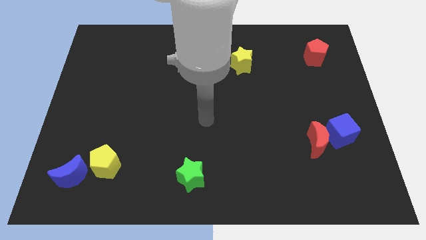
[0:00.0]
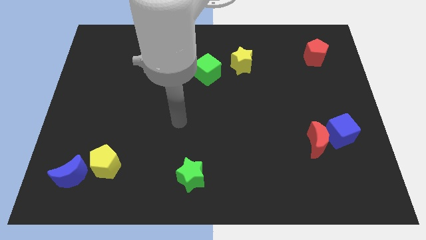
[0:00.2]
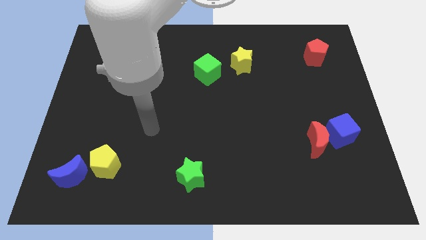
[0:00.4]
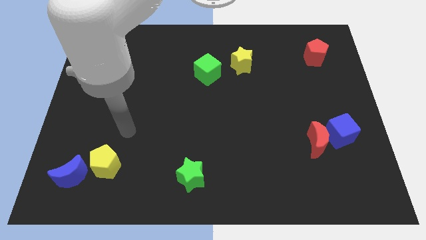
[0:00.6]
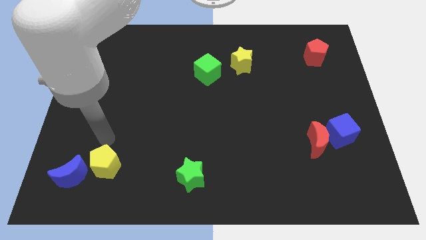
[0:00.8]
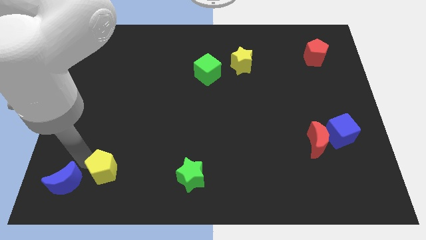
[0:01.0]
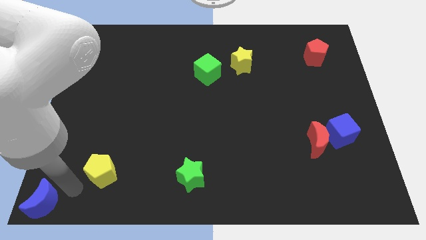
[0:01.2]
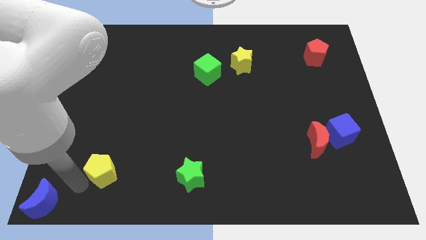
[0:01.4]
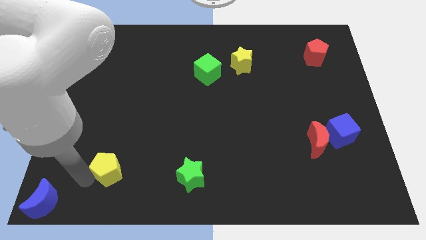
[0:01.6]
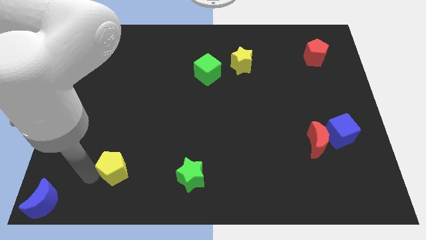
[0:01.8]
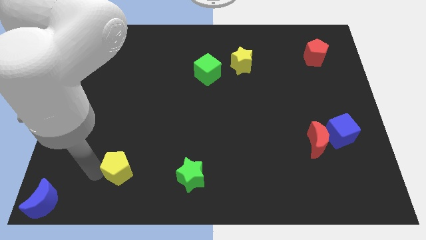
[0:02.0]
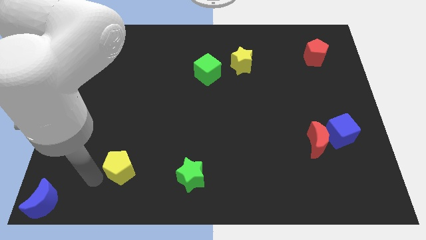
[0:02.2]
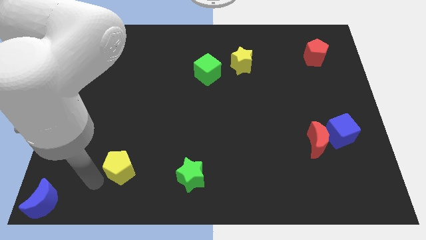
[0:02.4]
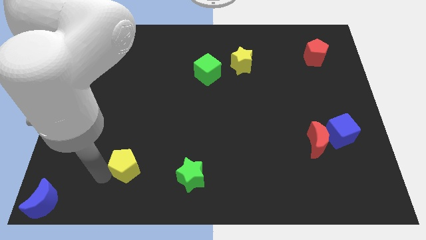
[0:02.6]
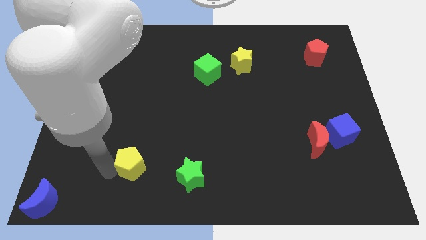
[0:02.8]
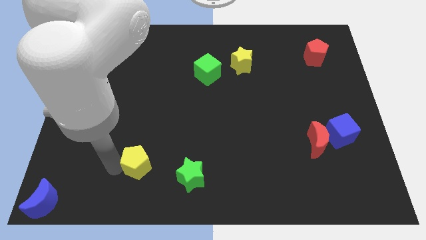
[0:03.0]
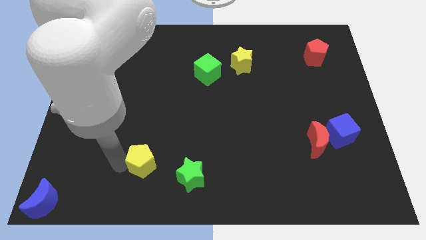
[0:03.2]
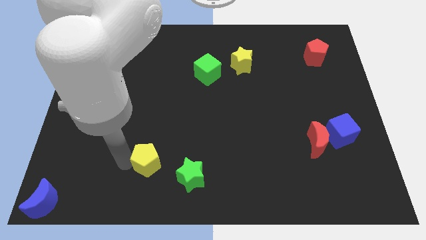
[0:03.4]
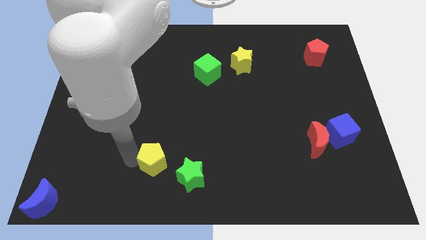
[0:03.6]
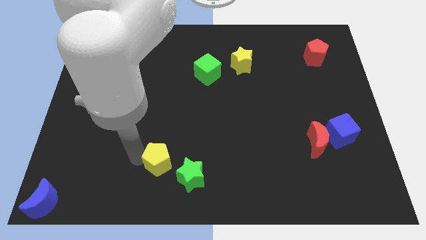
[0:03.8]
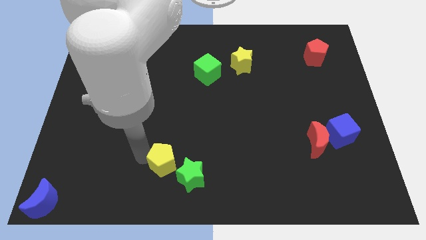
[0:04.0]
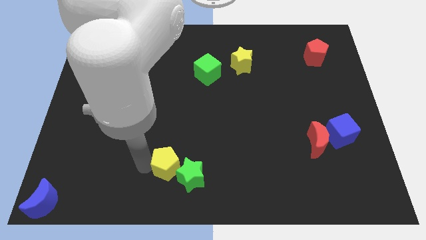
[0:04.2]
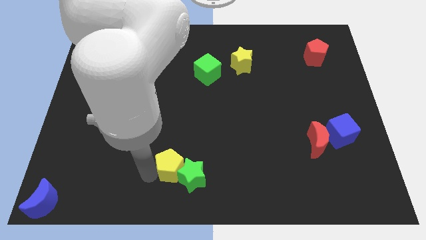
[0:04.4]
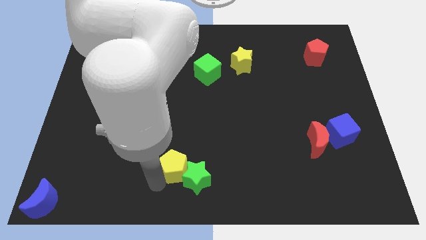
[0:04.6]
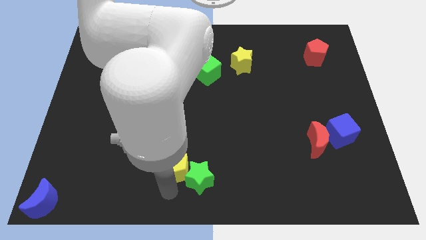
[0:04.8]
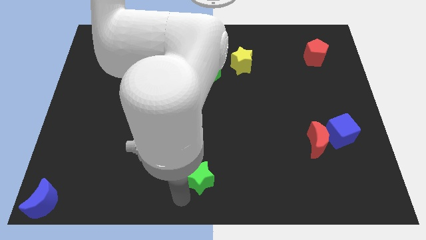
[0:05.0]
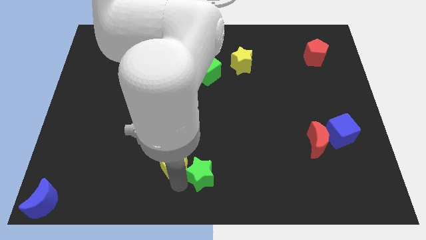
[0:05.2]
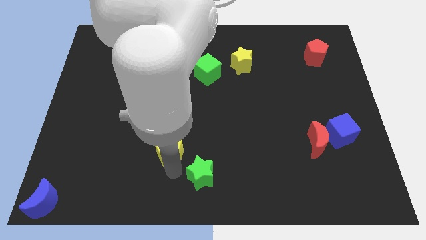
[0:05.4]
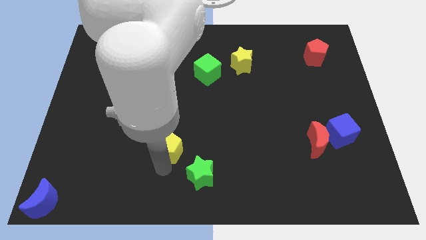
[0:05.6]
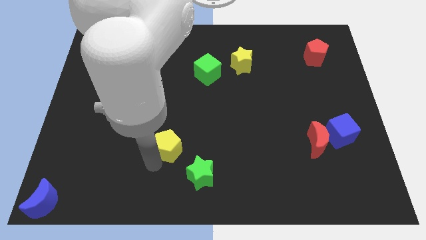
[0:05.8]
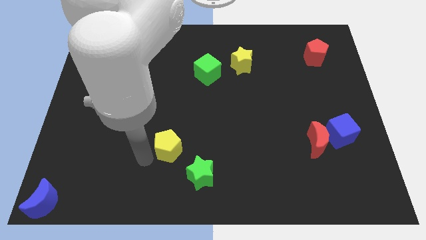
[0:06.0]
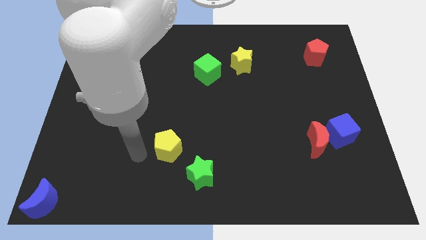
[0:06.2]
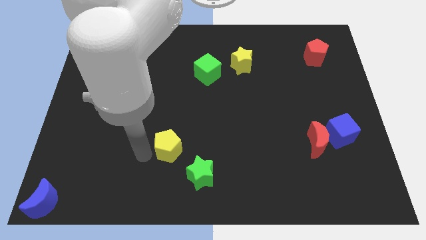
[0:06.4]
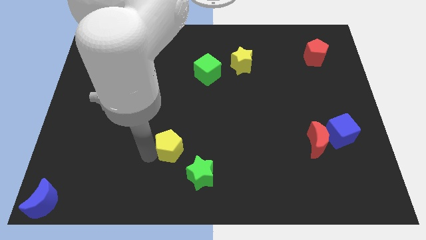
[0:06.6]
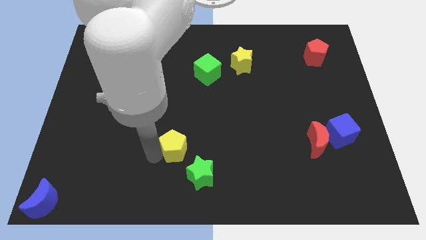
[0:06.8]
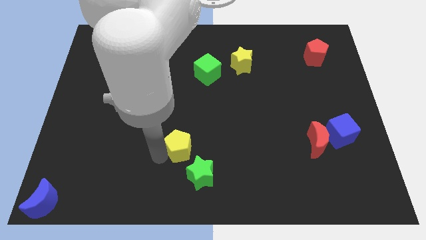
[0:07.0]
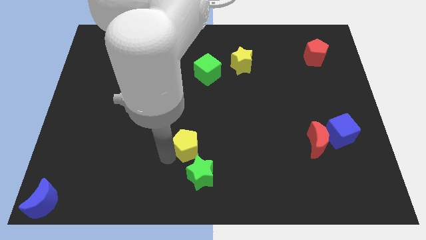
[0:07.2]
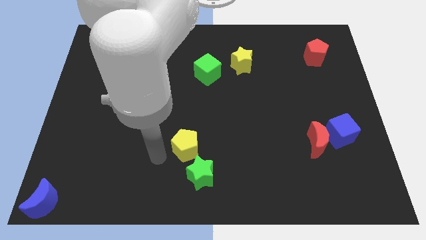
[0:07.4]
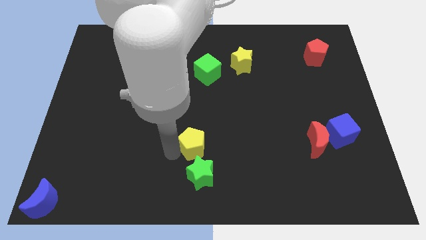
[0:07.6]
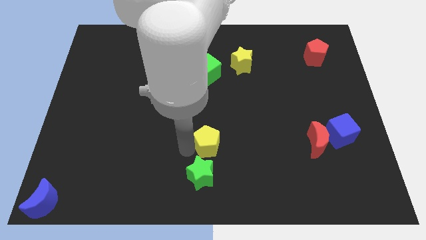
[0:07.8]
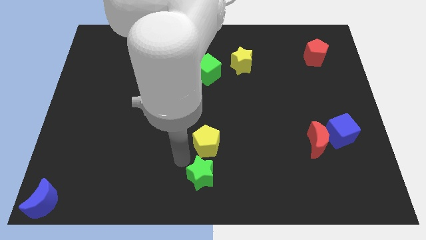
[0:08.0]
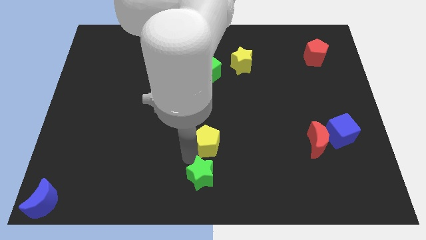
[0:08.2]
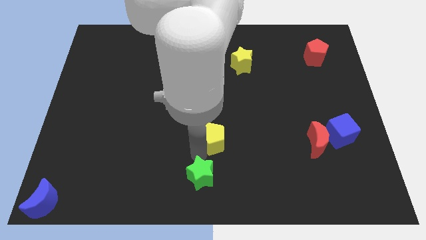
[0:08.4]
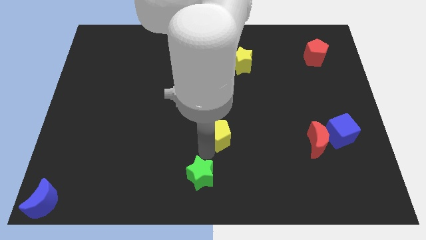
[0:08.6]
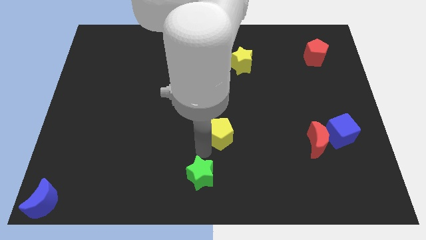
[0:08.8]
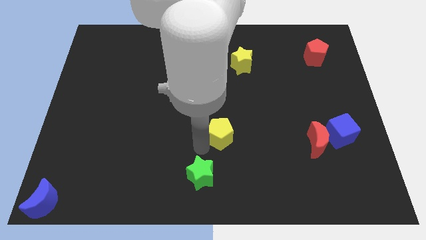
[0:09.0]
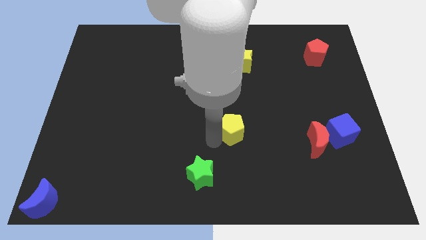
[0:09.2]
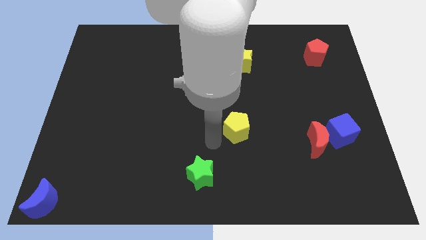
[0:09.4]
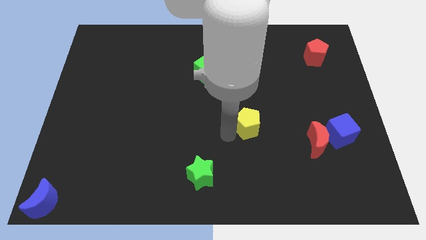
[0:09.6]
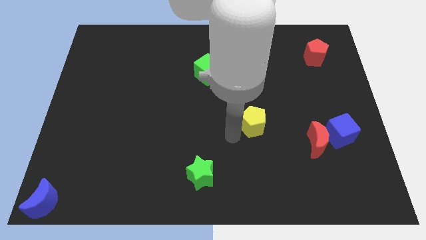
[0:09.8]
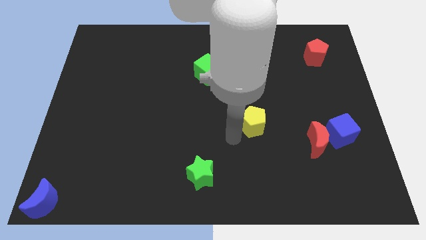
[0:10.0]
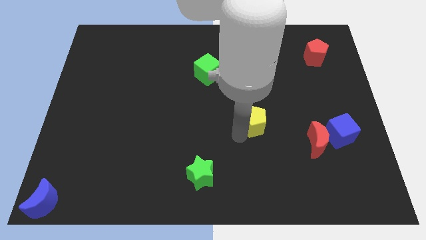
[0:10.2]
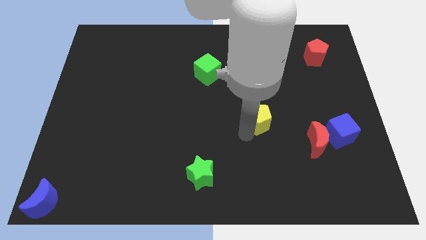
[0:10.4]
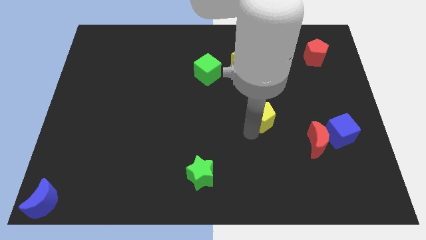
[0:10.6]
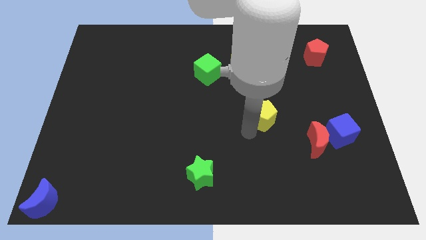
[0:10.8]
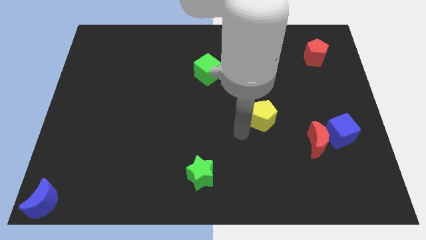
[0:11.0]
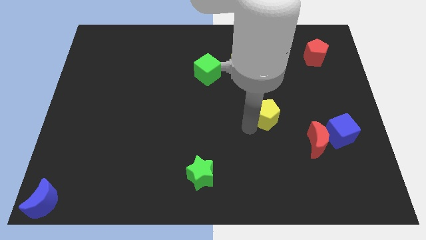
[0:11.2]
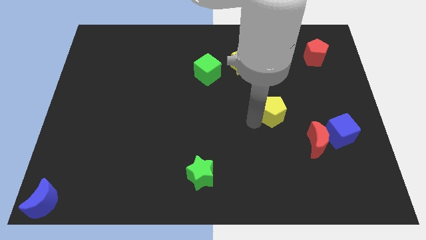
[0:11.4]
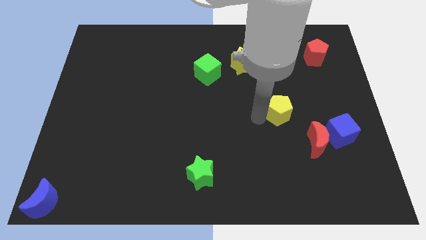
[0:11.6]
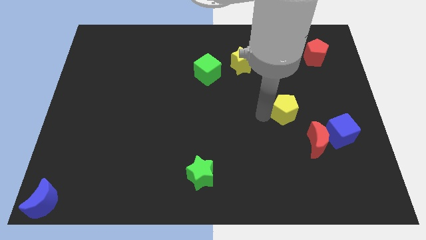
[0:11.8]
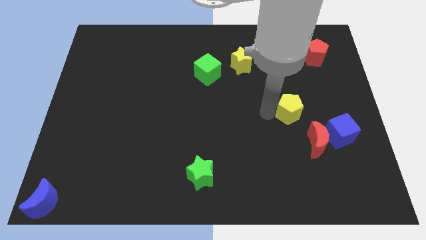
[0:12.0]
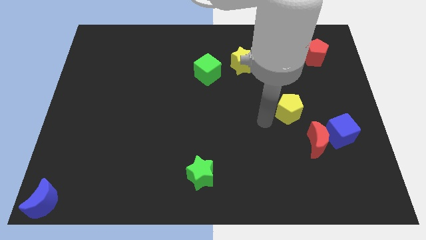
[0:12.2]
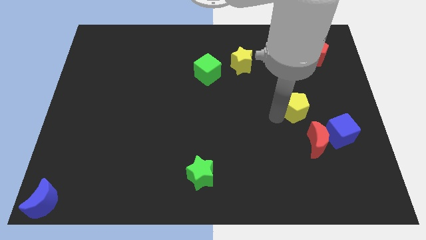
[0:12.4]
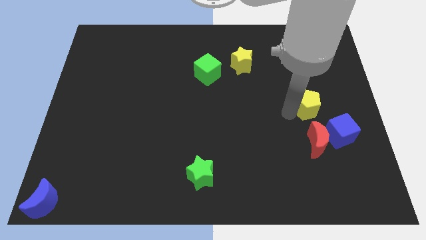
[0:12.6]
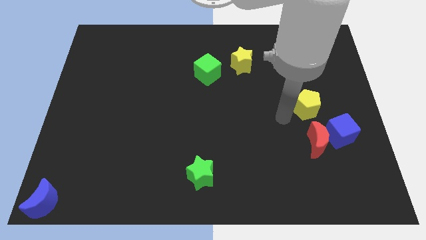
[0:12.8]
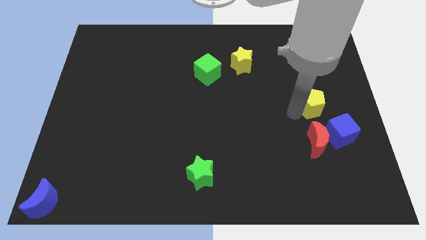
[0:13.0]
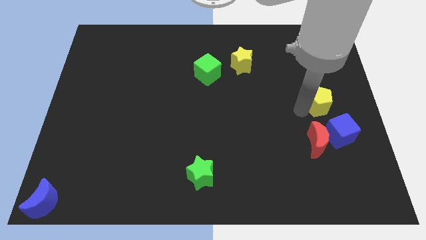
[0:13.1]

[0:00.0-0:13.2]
push the yellow pentagon above the blue cube
